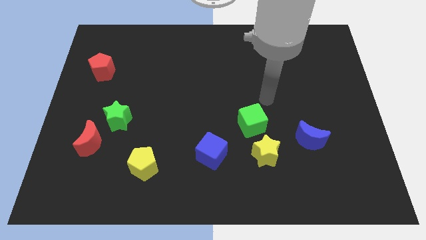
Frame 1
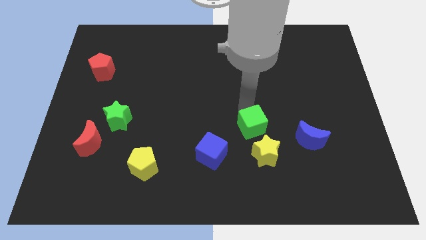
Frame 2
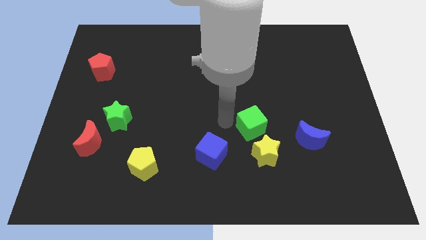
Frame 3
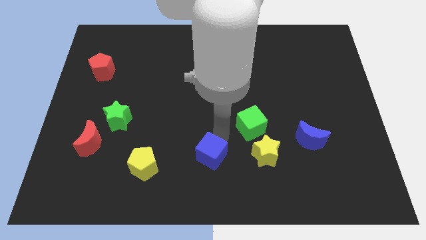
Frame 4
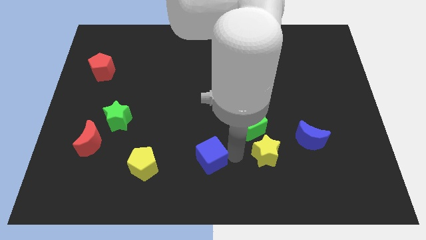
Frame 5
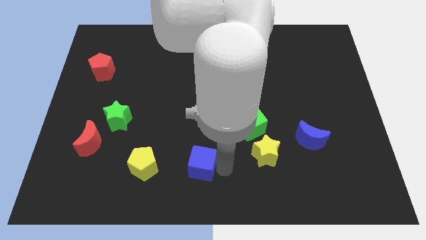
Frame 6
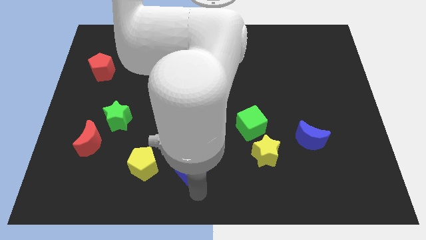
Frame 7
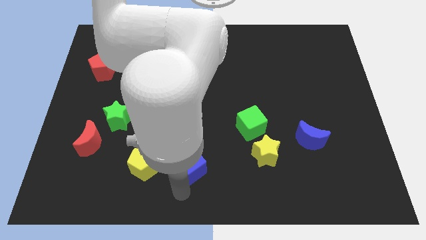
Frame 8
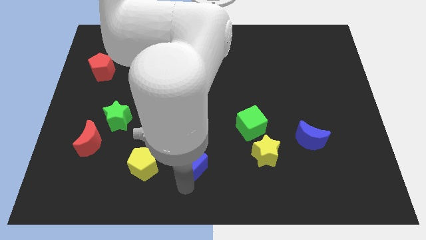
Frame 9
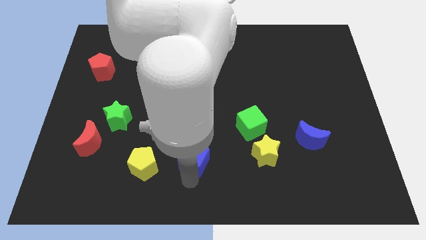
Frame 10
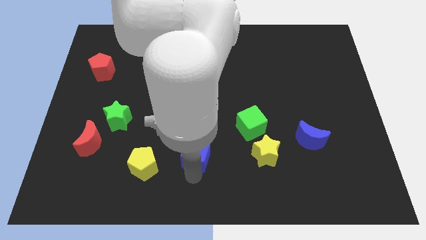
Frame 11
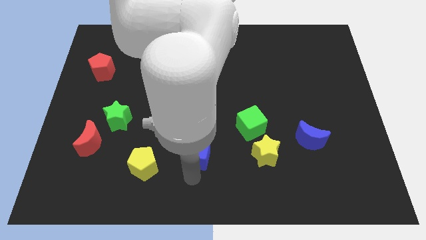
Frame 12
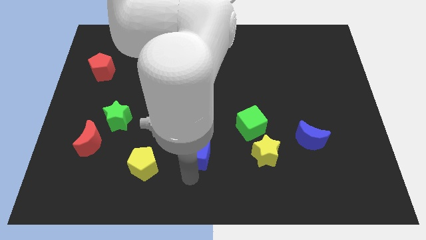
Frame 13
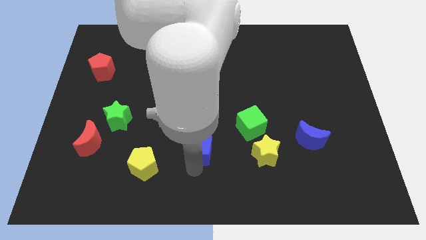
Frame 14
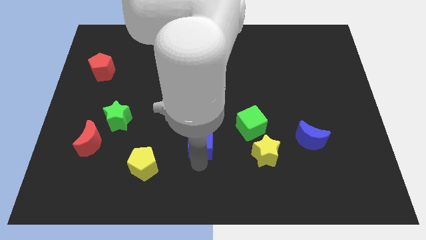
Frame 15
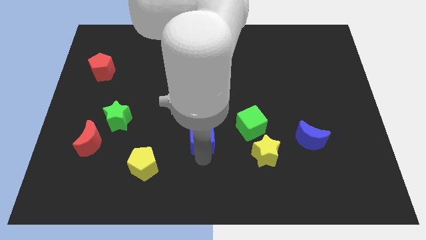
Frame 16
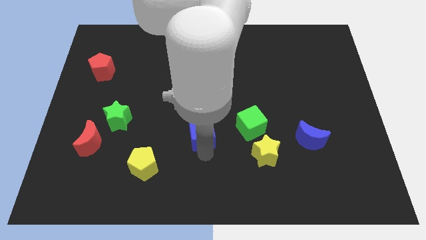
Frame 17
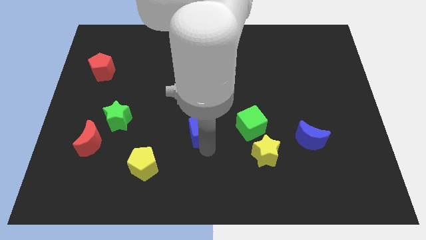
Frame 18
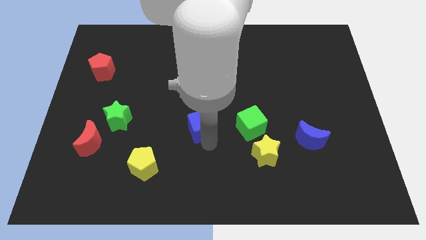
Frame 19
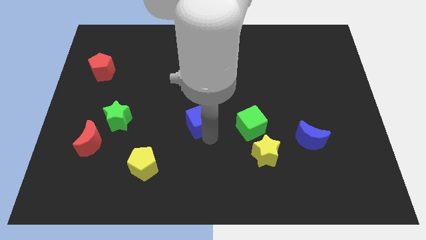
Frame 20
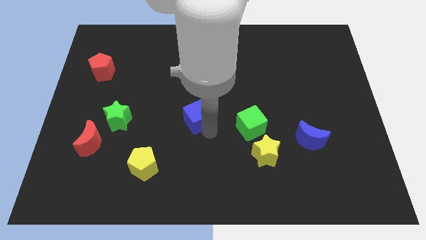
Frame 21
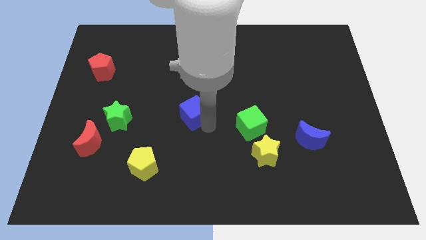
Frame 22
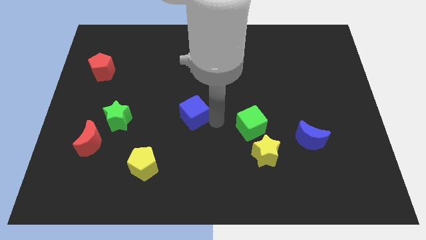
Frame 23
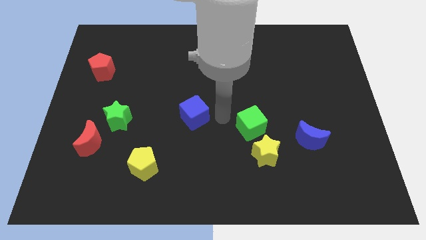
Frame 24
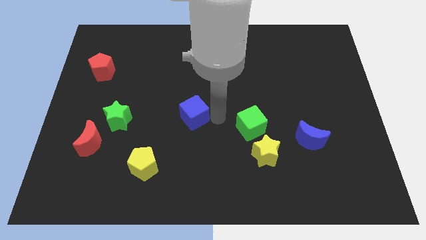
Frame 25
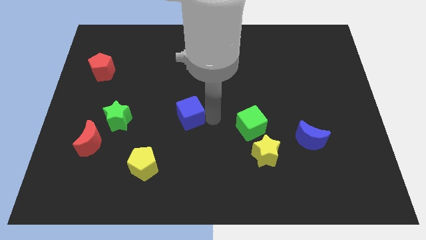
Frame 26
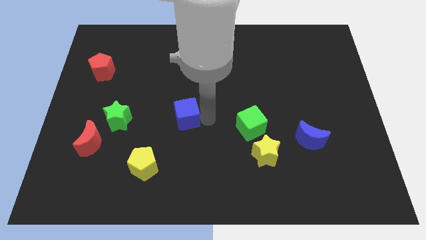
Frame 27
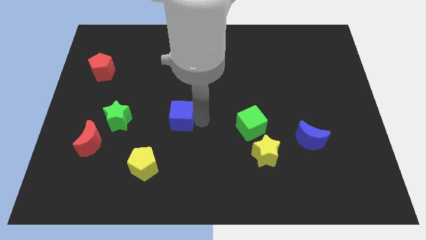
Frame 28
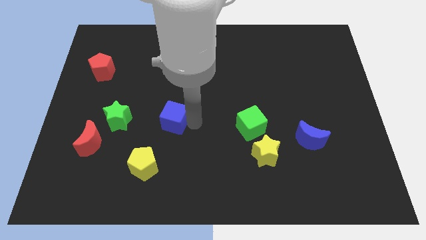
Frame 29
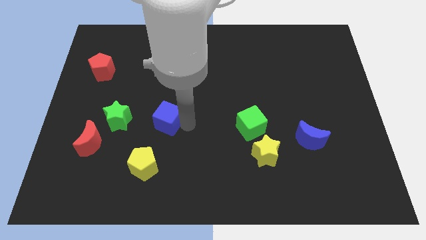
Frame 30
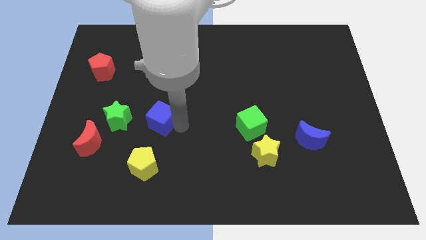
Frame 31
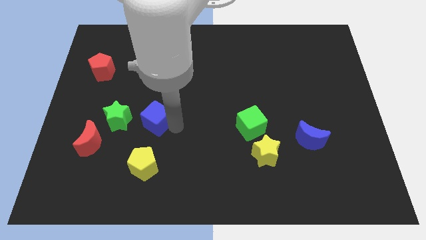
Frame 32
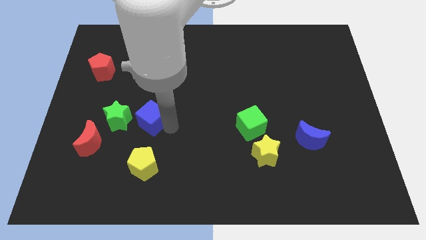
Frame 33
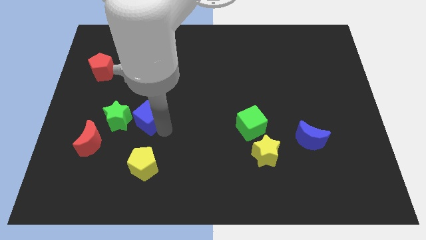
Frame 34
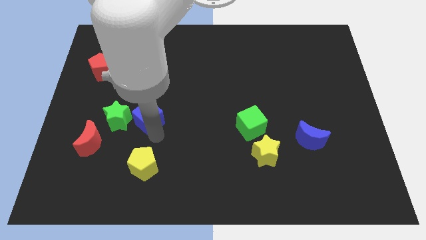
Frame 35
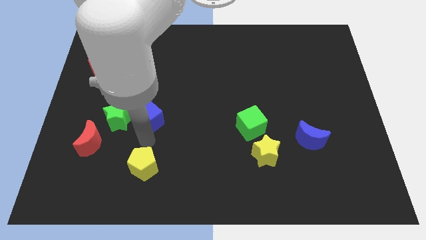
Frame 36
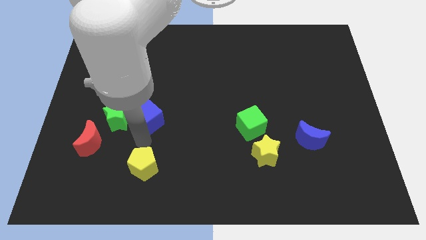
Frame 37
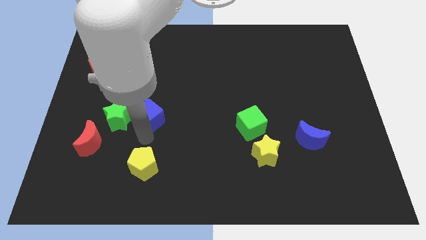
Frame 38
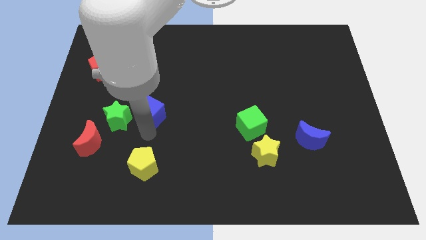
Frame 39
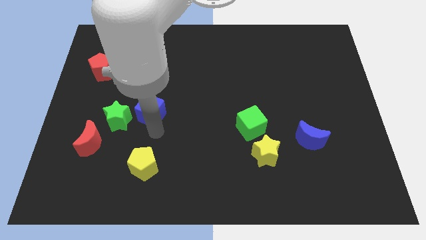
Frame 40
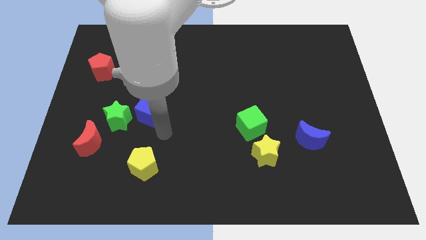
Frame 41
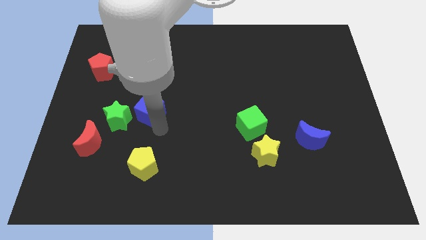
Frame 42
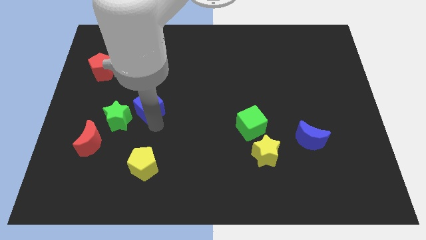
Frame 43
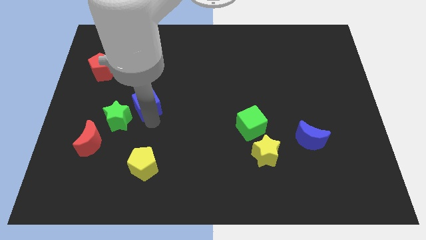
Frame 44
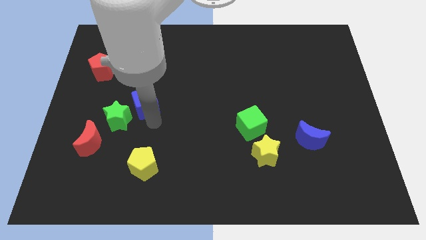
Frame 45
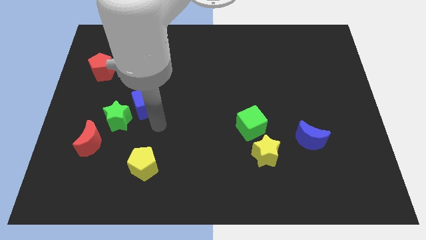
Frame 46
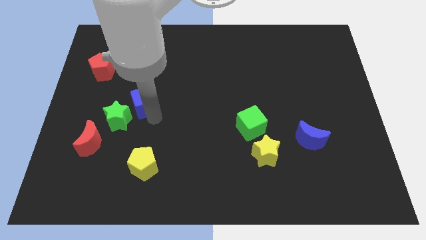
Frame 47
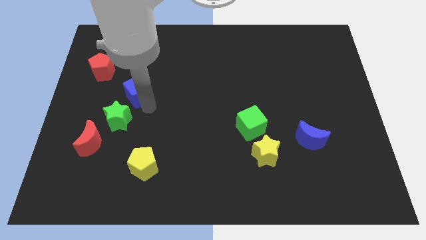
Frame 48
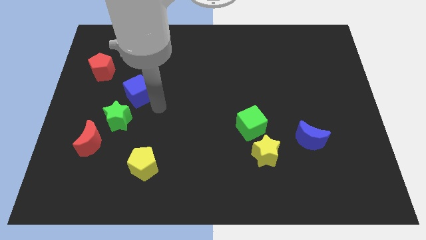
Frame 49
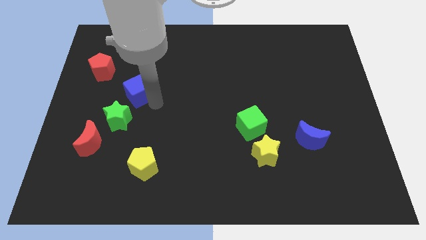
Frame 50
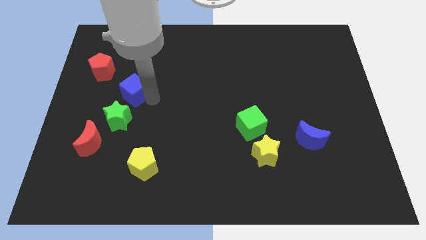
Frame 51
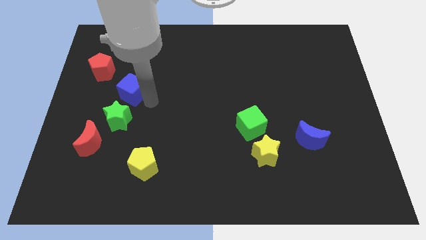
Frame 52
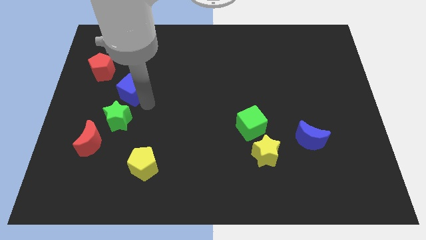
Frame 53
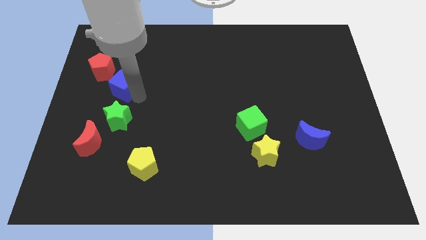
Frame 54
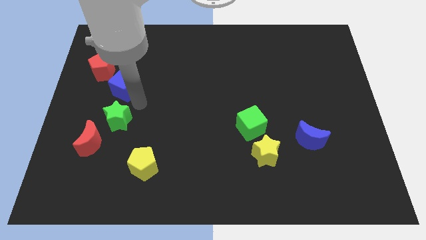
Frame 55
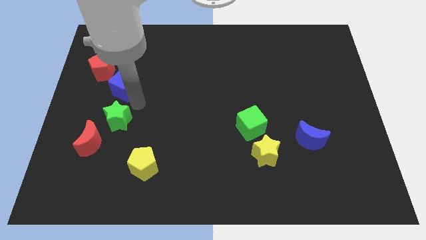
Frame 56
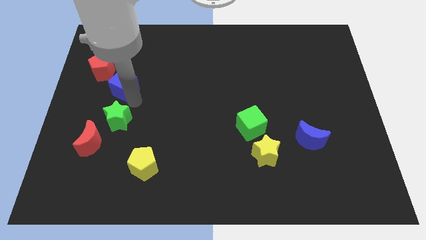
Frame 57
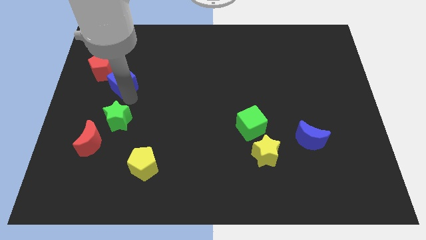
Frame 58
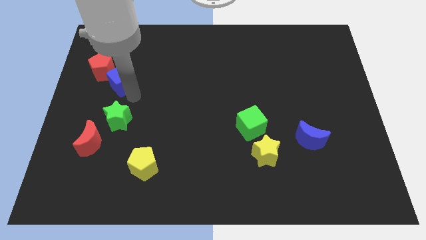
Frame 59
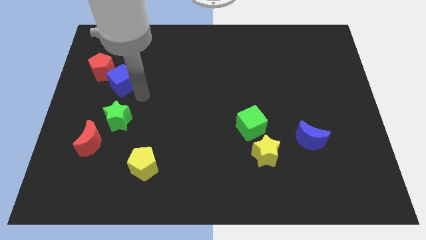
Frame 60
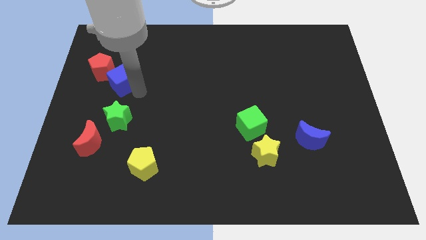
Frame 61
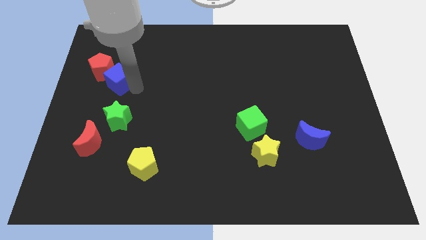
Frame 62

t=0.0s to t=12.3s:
put the blue cube towards the red pentagon

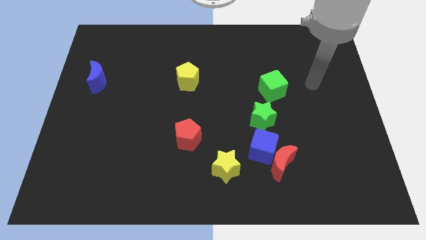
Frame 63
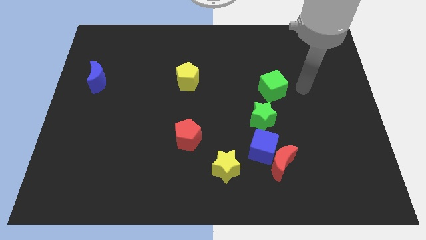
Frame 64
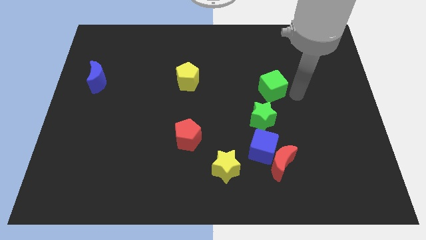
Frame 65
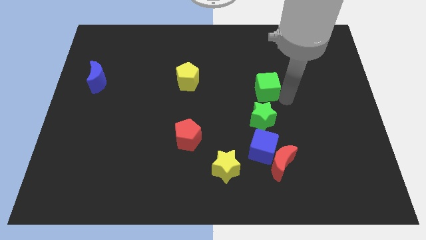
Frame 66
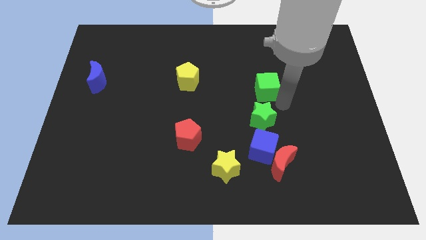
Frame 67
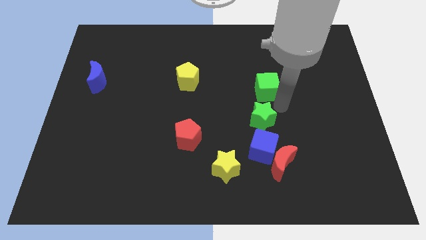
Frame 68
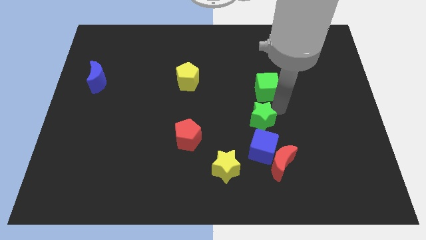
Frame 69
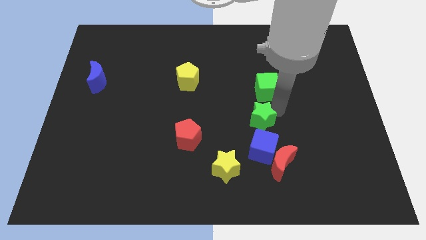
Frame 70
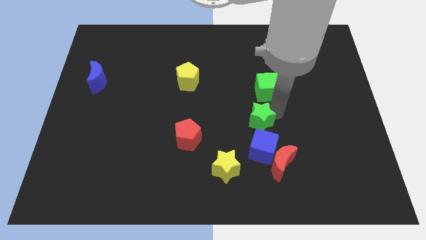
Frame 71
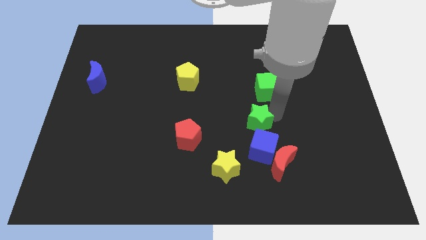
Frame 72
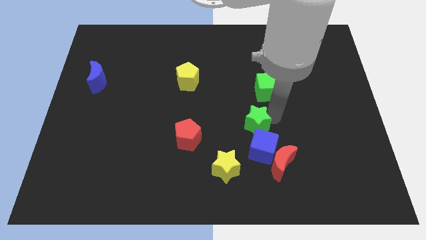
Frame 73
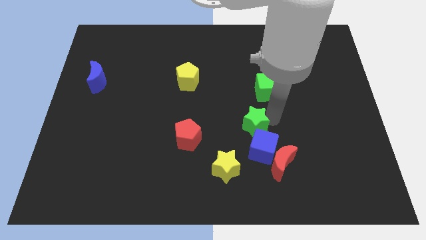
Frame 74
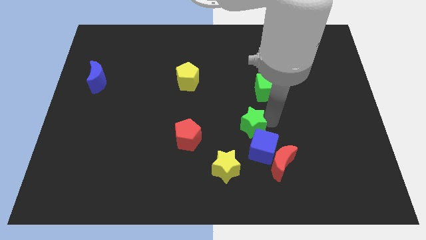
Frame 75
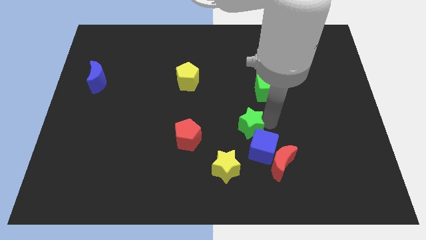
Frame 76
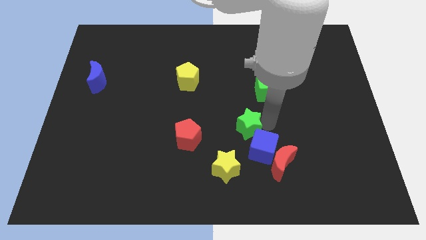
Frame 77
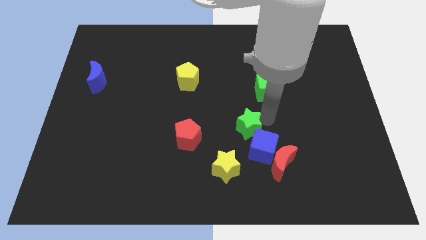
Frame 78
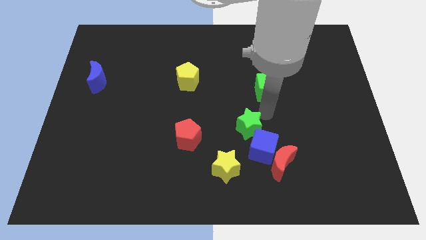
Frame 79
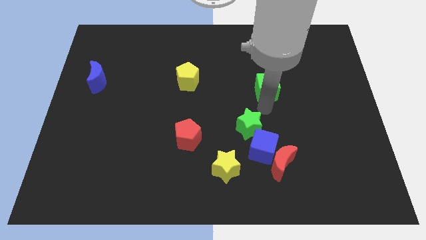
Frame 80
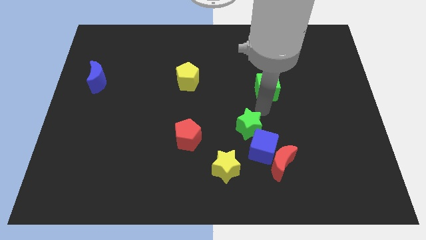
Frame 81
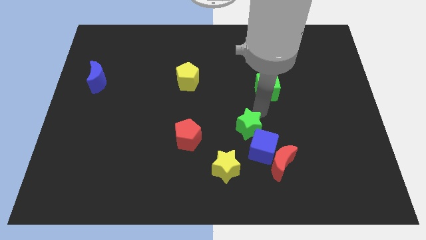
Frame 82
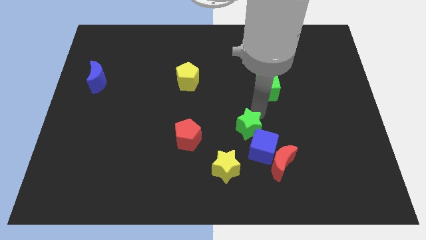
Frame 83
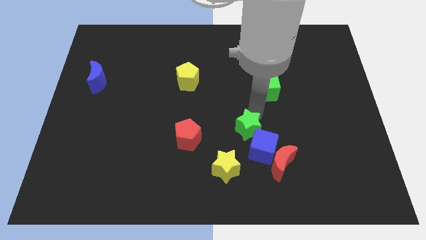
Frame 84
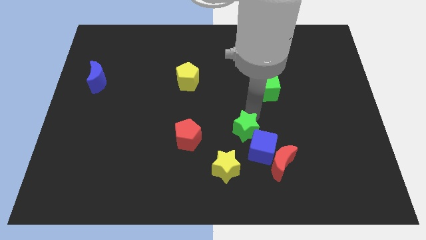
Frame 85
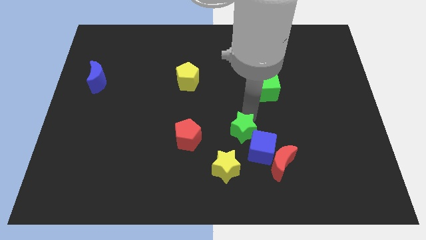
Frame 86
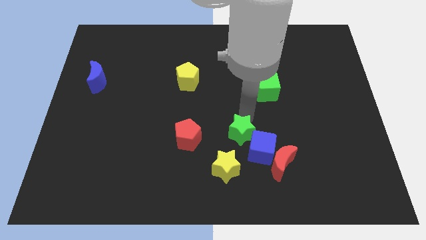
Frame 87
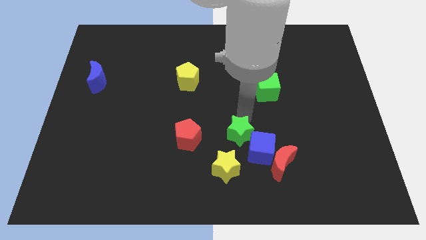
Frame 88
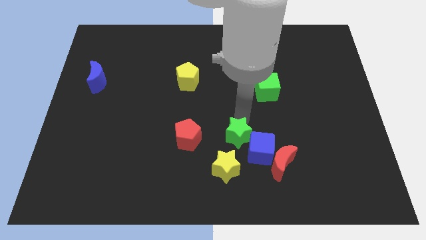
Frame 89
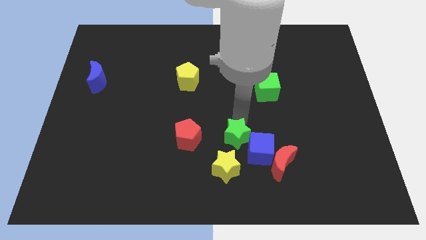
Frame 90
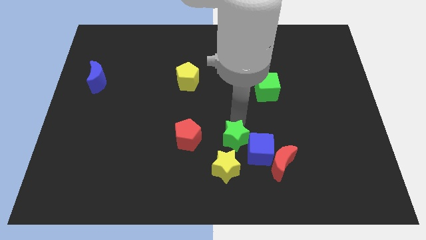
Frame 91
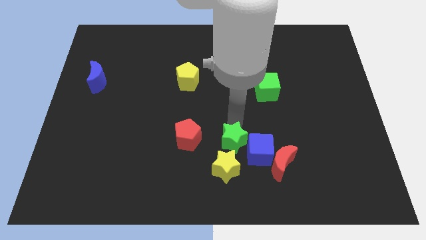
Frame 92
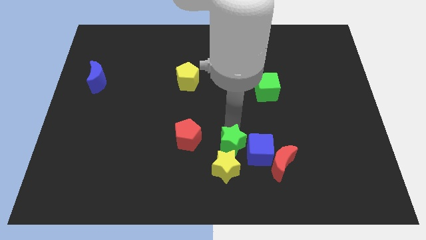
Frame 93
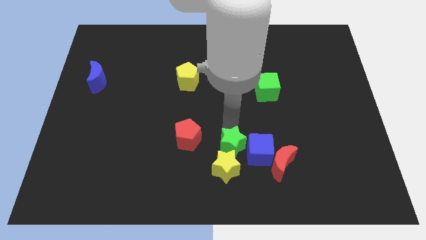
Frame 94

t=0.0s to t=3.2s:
push the green star to the yellow star
